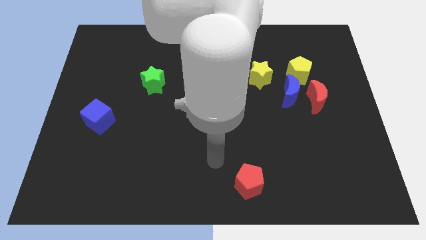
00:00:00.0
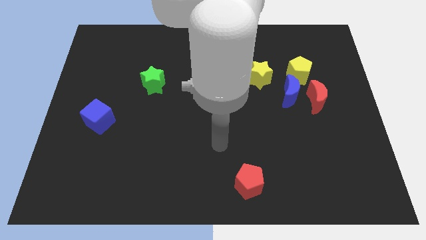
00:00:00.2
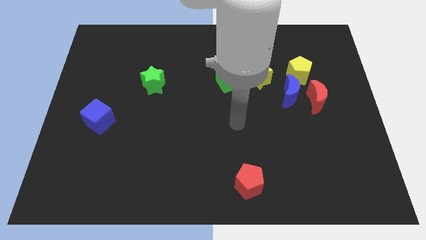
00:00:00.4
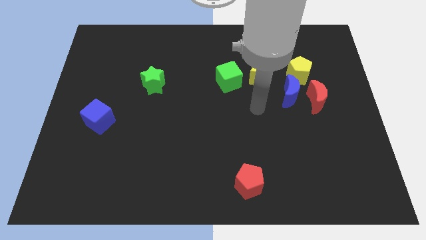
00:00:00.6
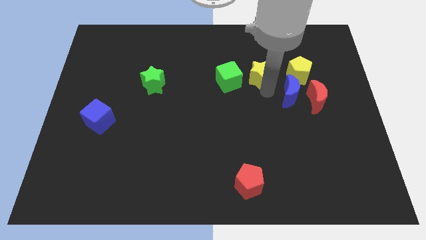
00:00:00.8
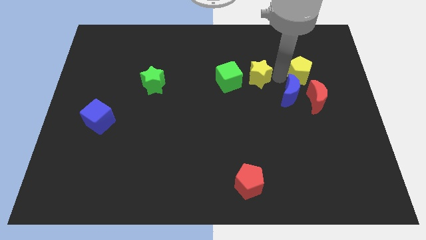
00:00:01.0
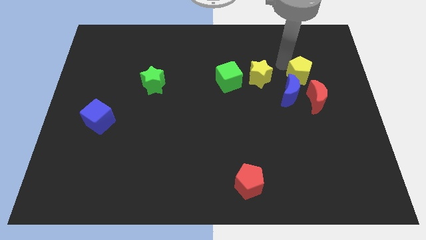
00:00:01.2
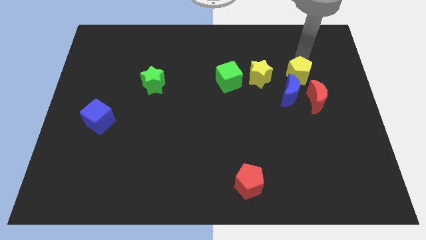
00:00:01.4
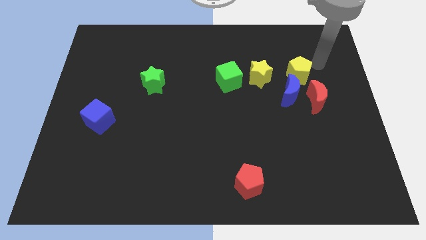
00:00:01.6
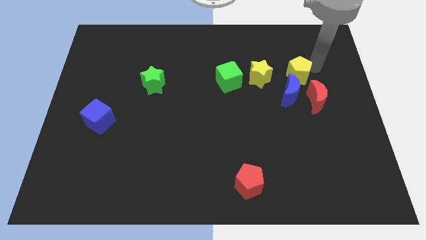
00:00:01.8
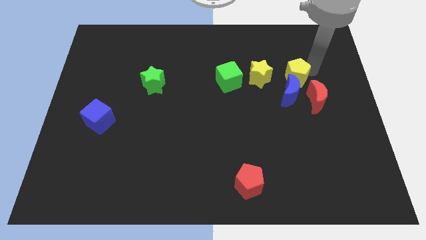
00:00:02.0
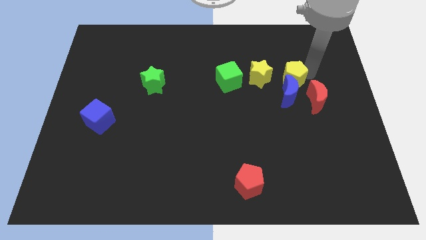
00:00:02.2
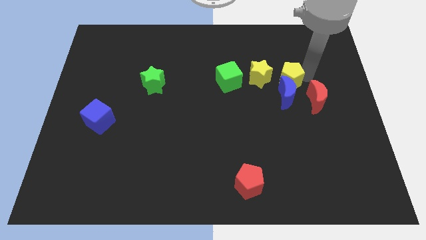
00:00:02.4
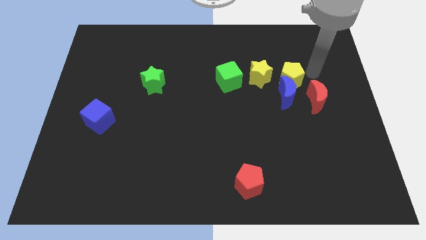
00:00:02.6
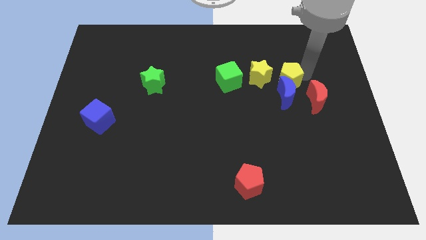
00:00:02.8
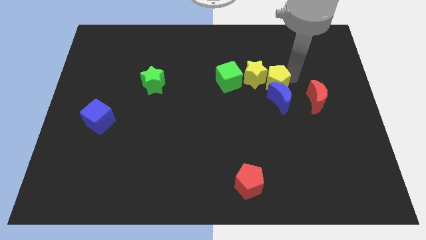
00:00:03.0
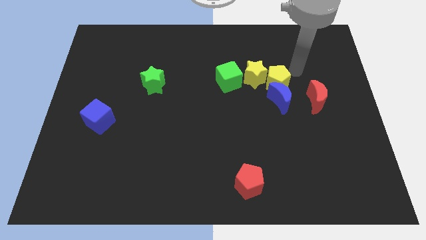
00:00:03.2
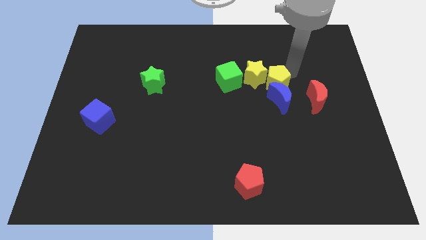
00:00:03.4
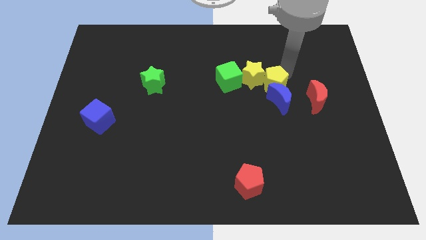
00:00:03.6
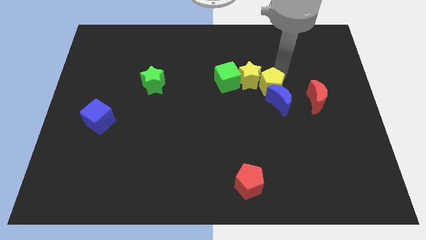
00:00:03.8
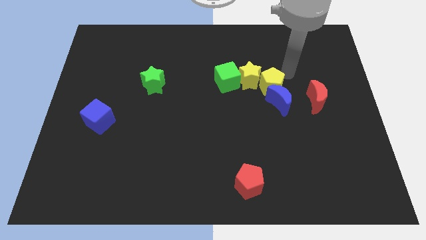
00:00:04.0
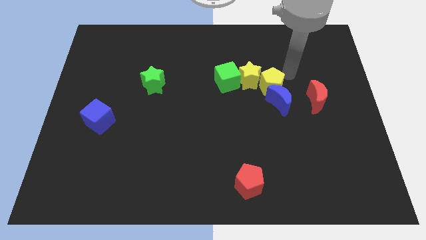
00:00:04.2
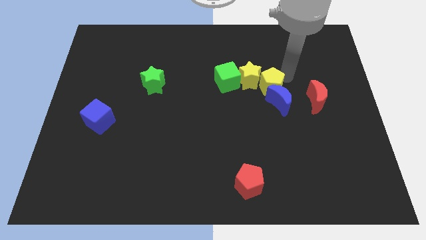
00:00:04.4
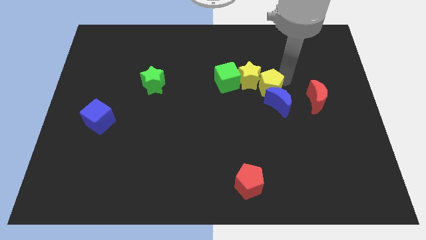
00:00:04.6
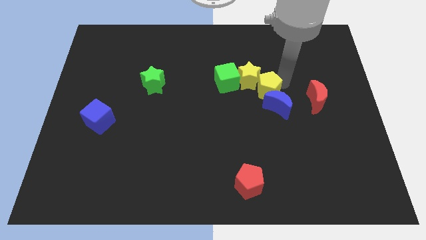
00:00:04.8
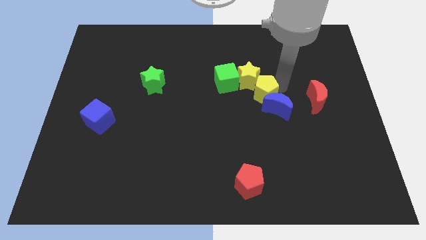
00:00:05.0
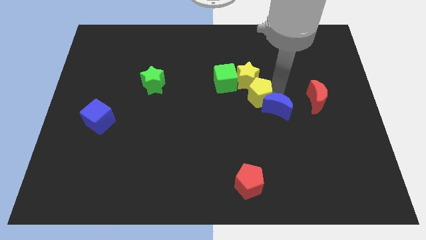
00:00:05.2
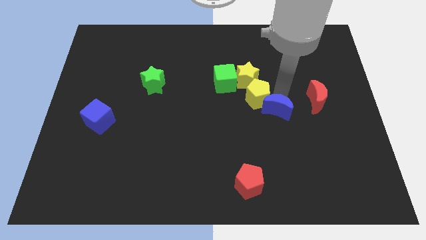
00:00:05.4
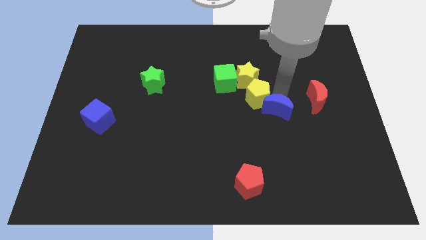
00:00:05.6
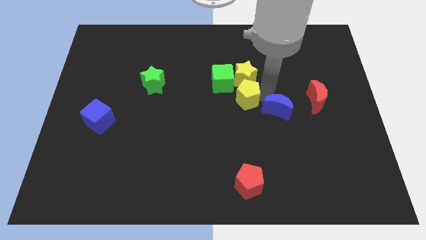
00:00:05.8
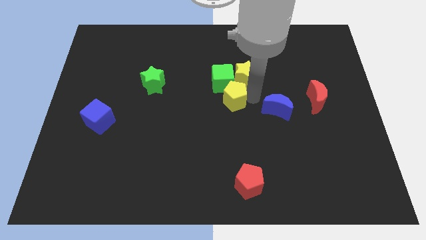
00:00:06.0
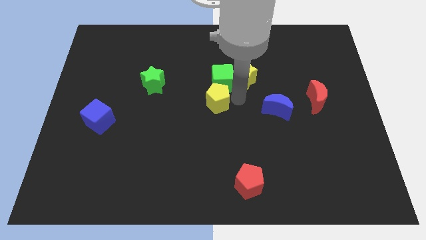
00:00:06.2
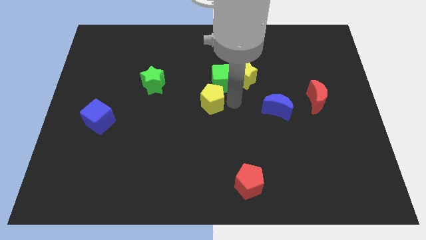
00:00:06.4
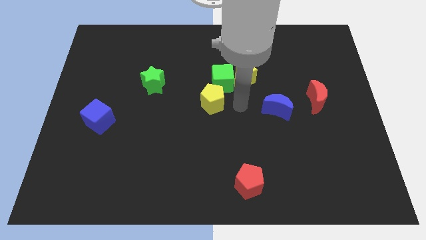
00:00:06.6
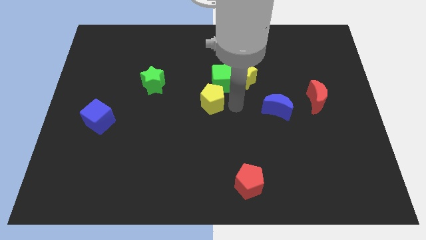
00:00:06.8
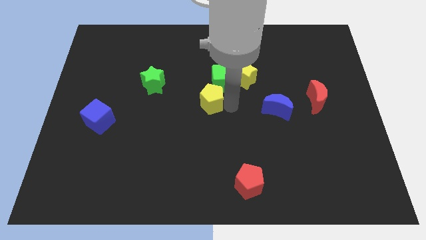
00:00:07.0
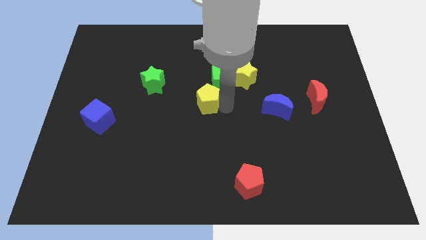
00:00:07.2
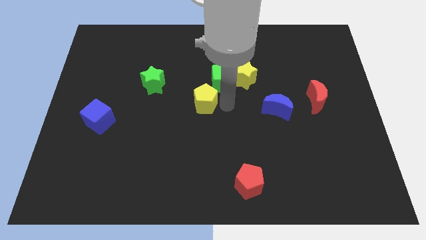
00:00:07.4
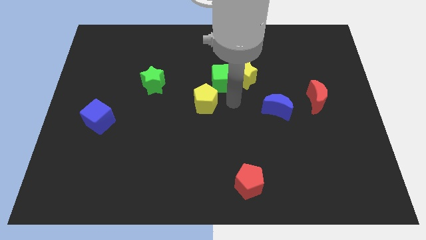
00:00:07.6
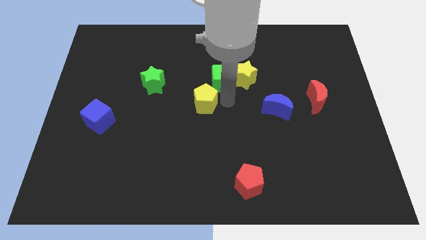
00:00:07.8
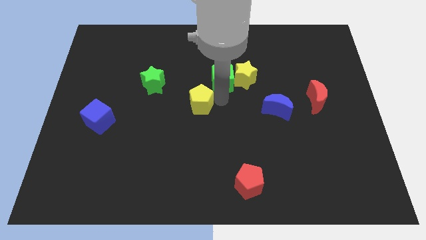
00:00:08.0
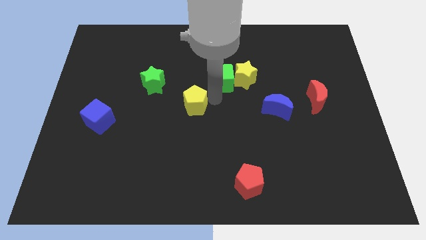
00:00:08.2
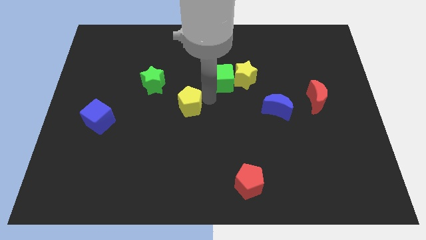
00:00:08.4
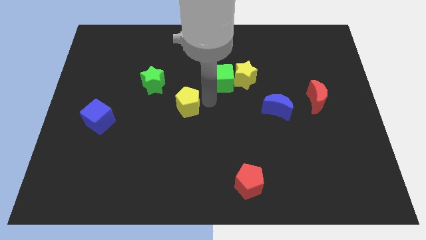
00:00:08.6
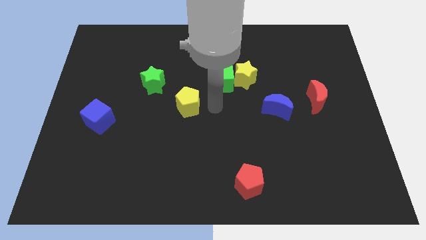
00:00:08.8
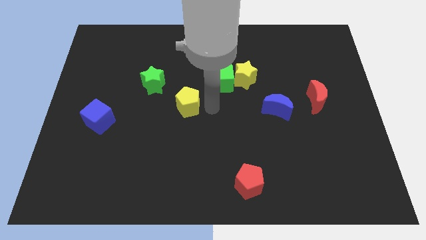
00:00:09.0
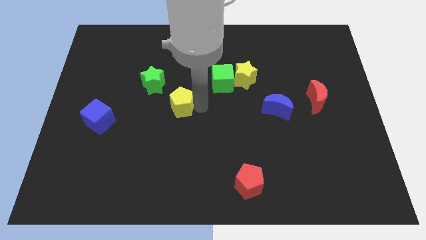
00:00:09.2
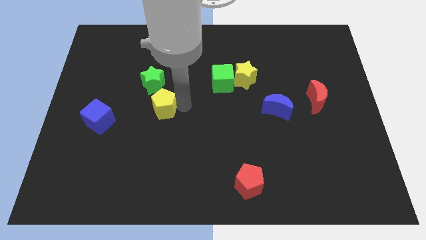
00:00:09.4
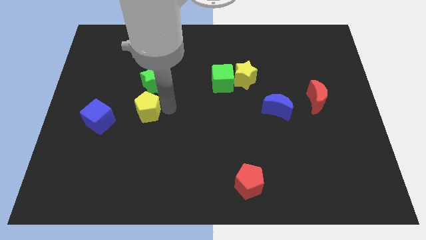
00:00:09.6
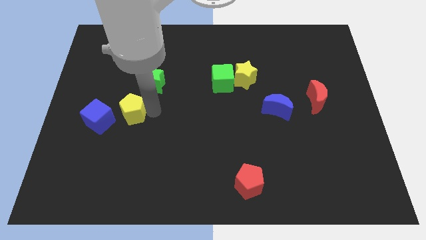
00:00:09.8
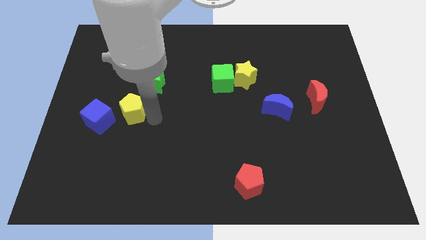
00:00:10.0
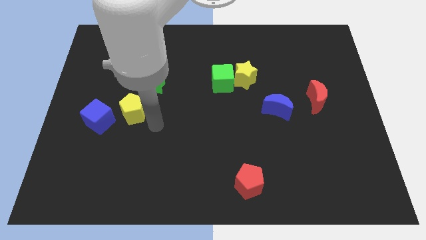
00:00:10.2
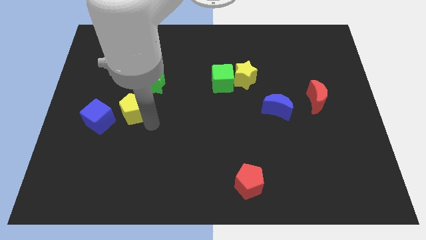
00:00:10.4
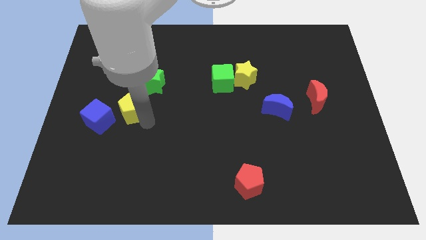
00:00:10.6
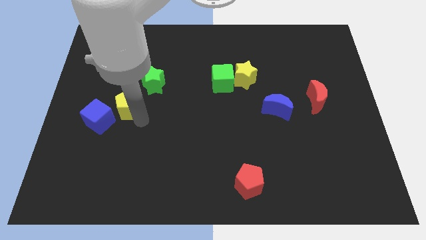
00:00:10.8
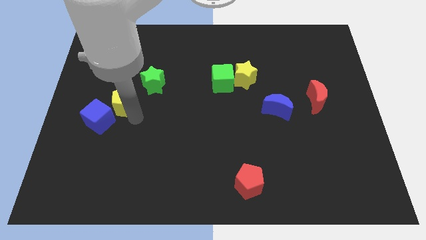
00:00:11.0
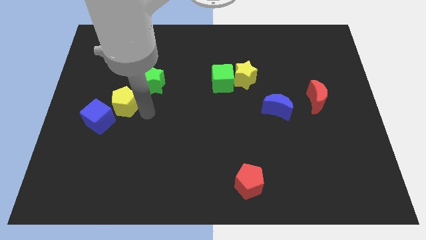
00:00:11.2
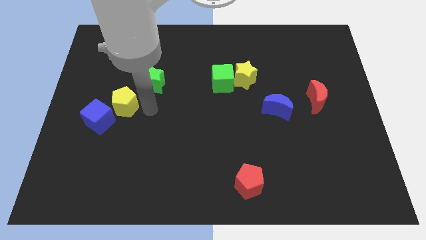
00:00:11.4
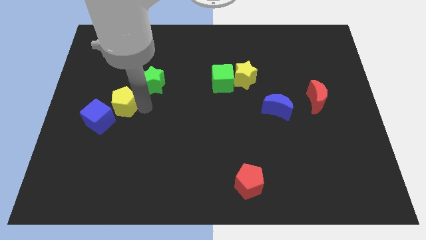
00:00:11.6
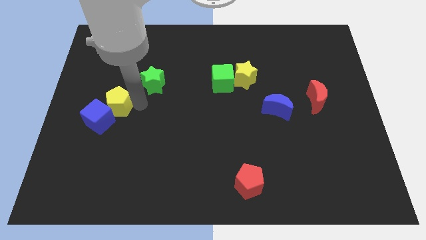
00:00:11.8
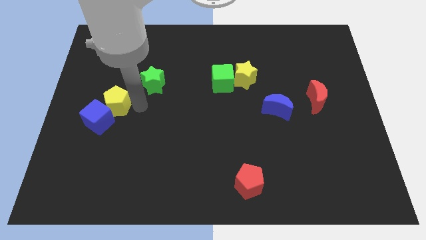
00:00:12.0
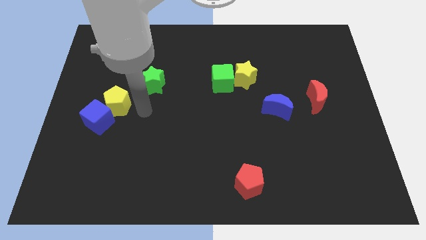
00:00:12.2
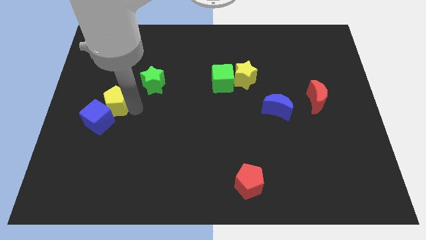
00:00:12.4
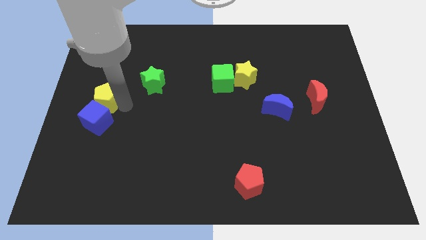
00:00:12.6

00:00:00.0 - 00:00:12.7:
slide the yellow pentagon to the center left
